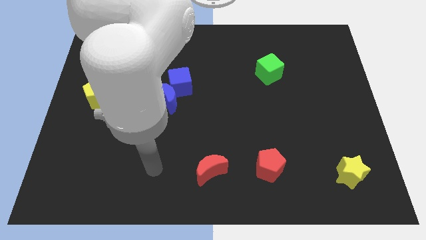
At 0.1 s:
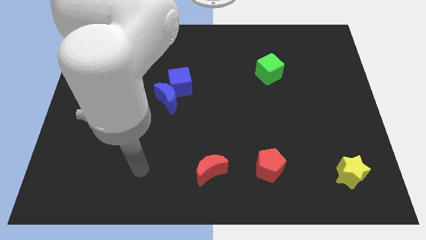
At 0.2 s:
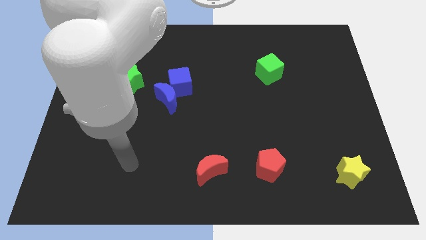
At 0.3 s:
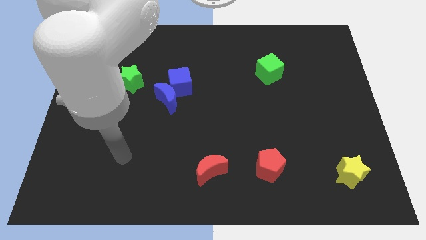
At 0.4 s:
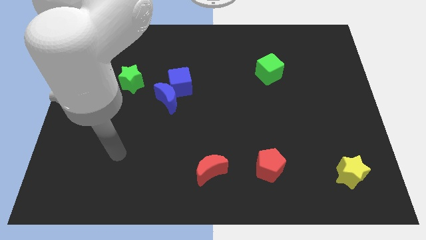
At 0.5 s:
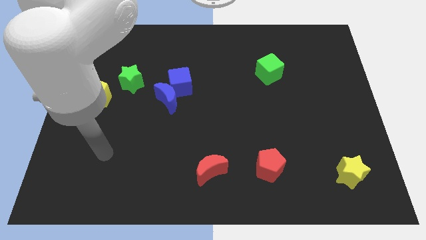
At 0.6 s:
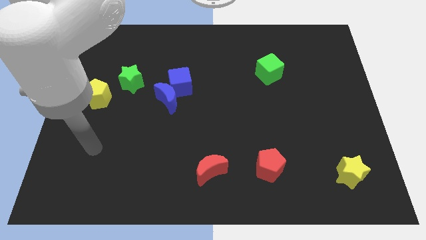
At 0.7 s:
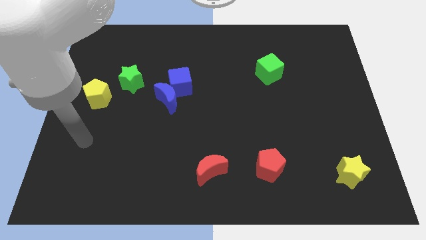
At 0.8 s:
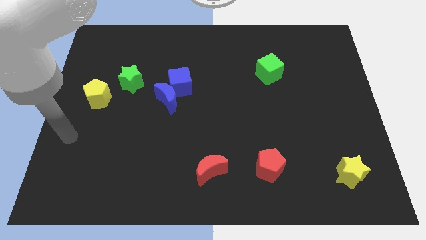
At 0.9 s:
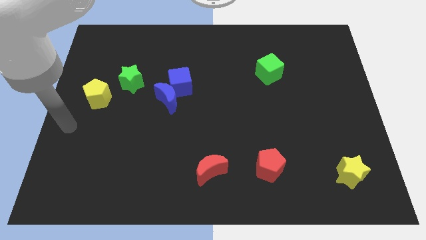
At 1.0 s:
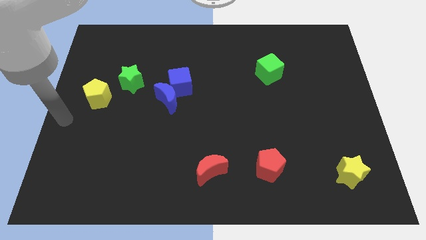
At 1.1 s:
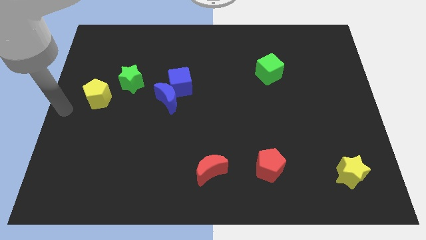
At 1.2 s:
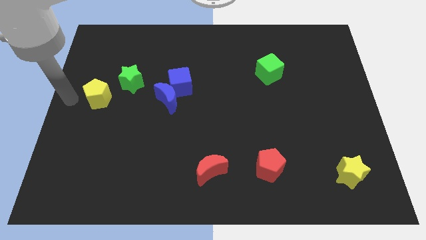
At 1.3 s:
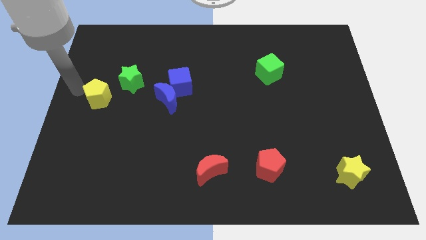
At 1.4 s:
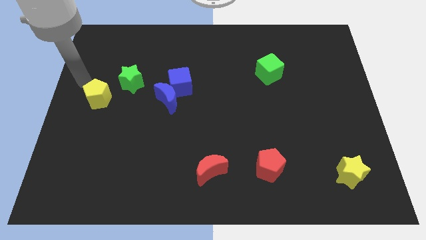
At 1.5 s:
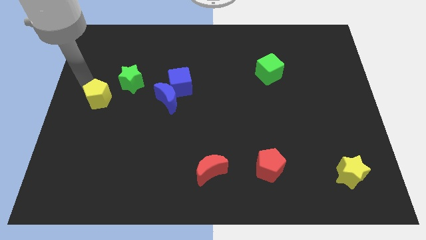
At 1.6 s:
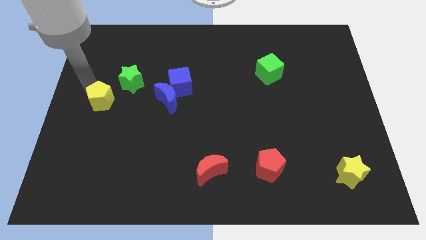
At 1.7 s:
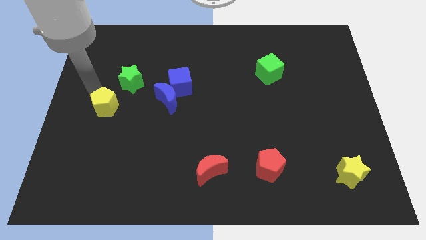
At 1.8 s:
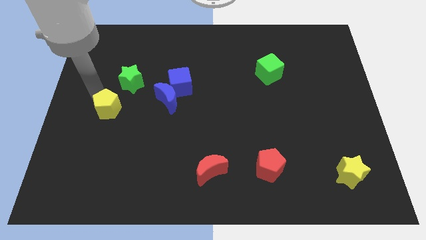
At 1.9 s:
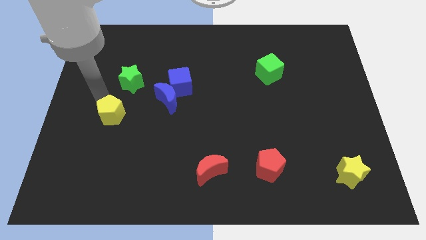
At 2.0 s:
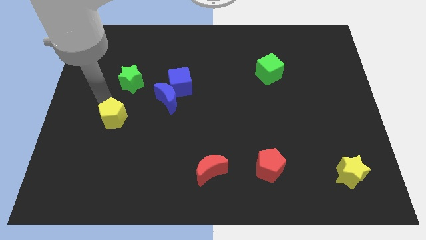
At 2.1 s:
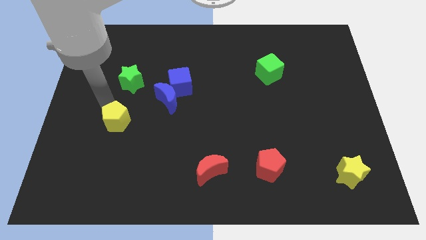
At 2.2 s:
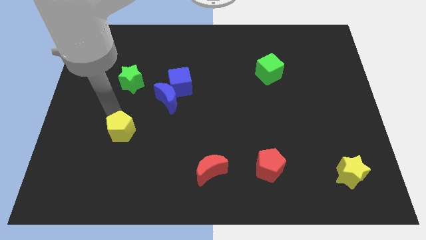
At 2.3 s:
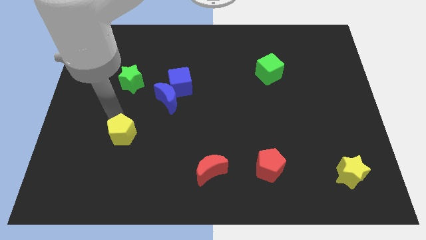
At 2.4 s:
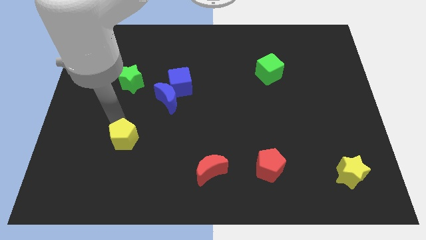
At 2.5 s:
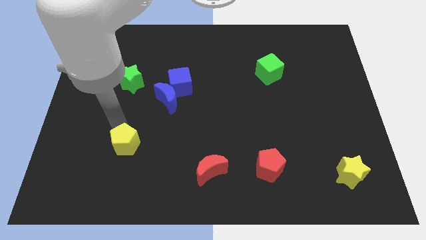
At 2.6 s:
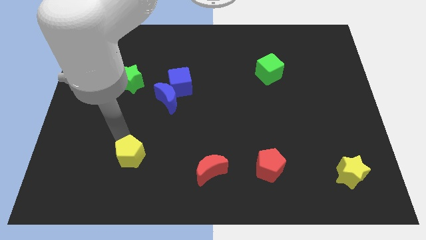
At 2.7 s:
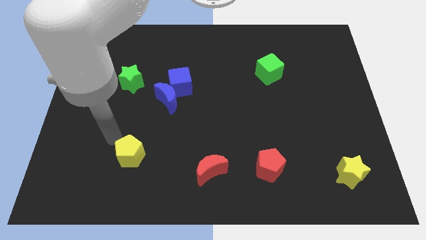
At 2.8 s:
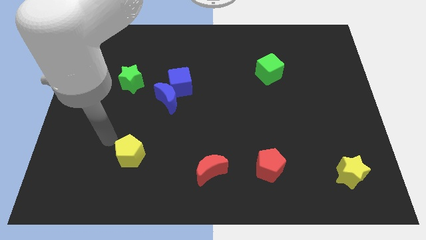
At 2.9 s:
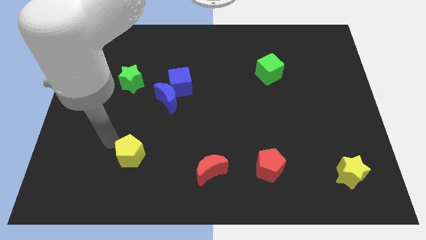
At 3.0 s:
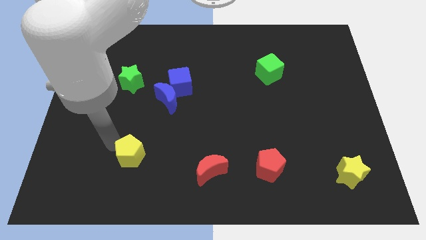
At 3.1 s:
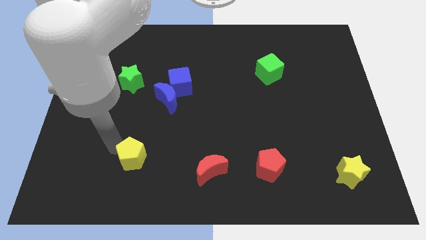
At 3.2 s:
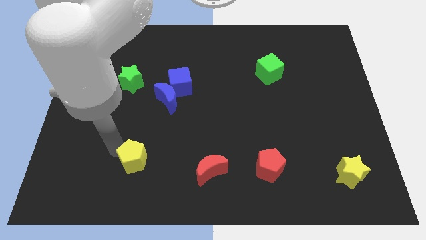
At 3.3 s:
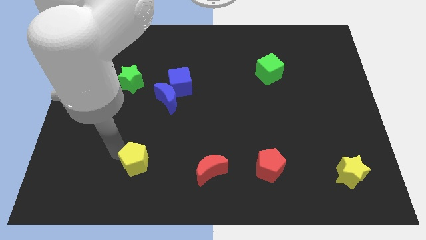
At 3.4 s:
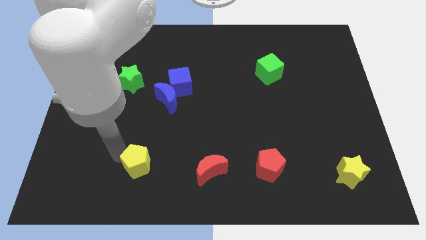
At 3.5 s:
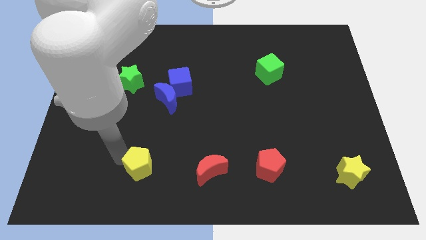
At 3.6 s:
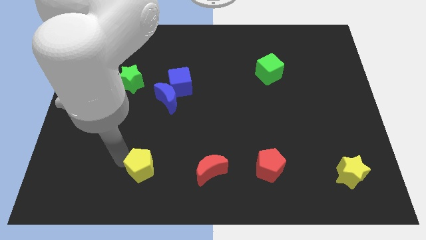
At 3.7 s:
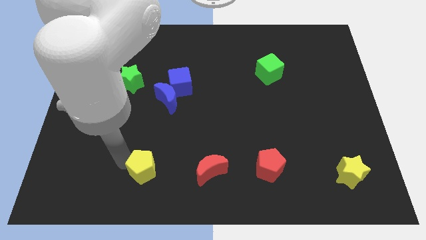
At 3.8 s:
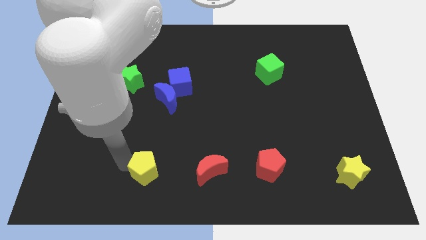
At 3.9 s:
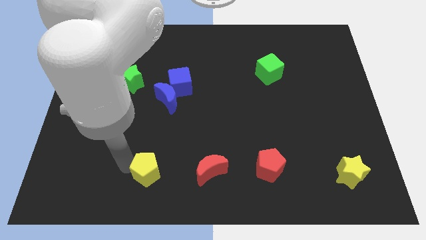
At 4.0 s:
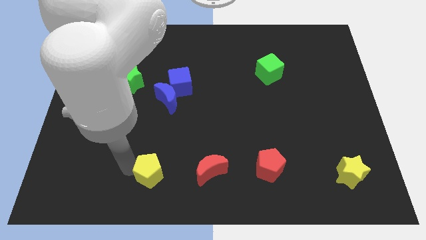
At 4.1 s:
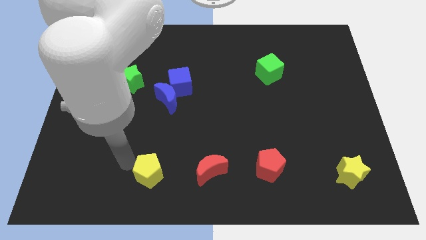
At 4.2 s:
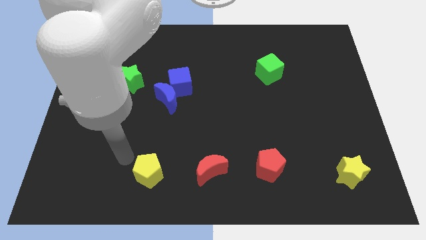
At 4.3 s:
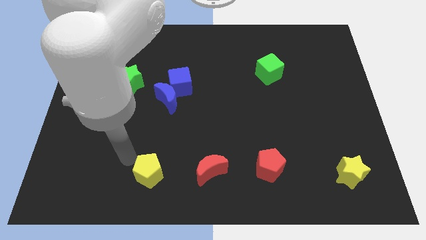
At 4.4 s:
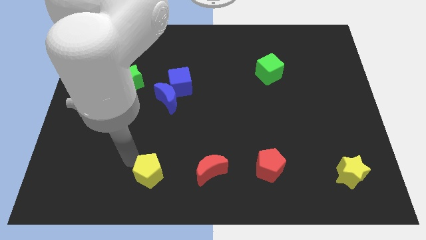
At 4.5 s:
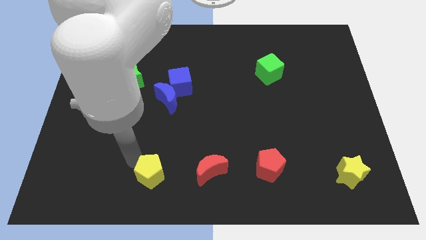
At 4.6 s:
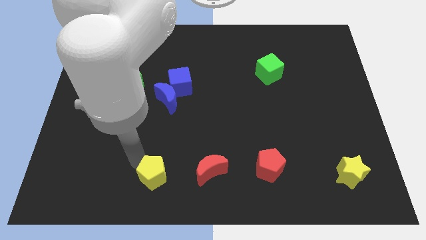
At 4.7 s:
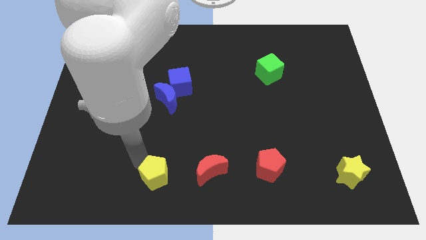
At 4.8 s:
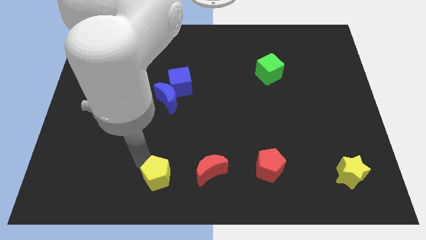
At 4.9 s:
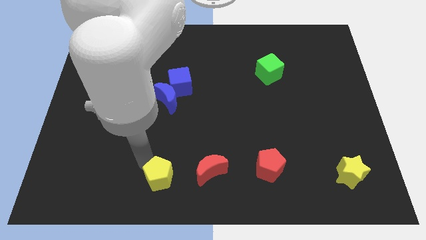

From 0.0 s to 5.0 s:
push the yellow pentagon to the bottom

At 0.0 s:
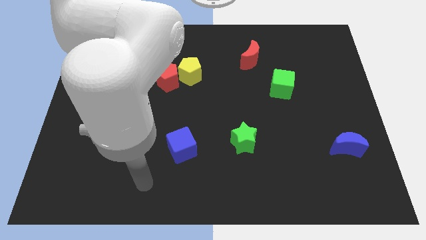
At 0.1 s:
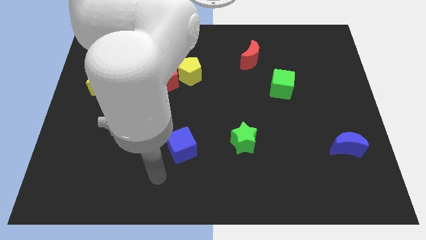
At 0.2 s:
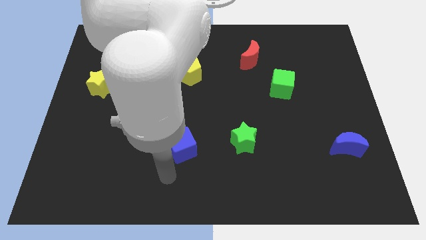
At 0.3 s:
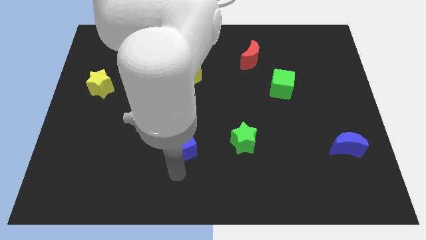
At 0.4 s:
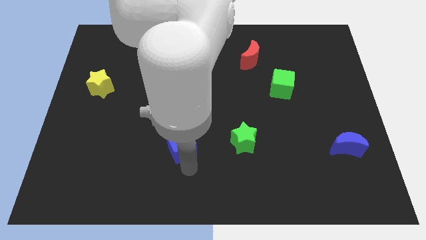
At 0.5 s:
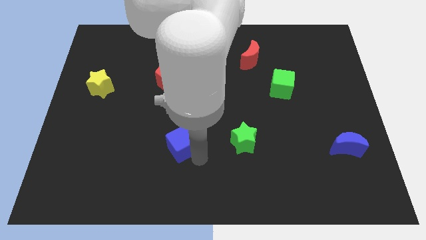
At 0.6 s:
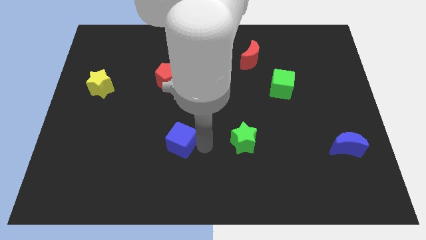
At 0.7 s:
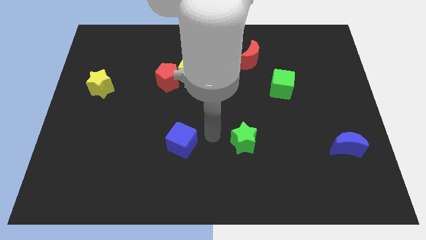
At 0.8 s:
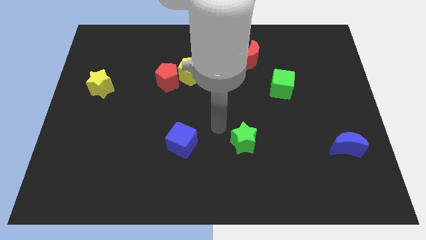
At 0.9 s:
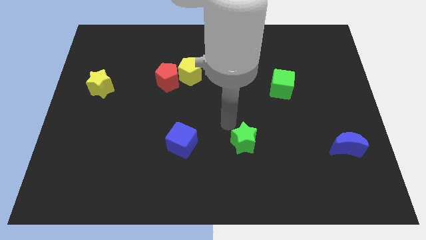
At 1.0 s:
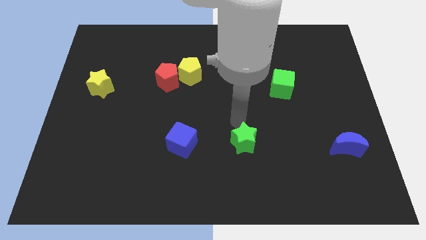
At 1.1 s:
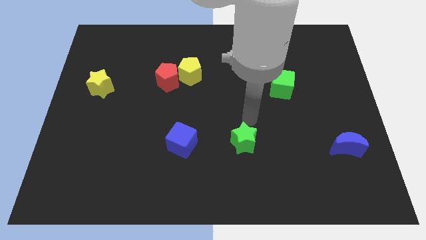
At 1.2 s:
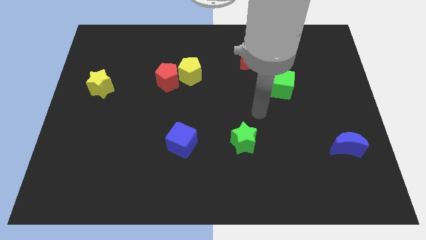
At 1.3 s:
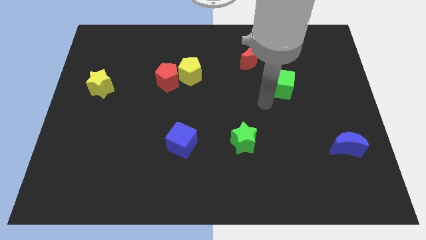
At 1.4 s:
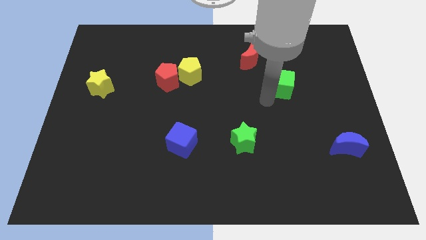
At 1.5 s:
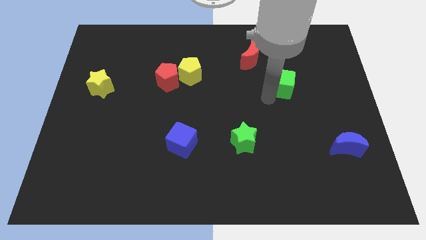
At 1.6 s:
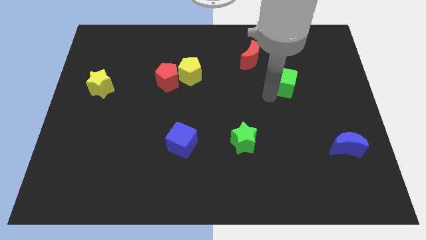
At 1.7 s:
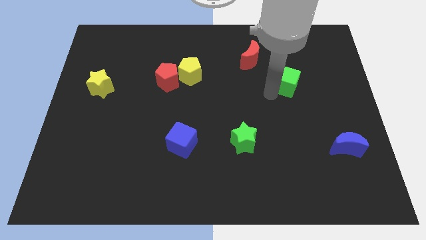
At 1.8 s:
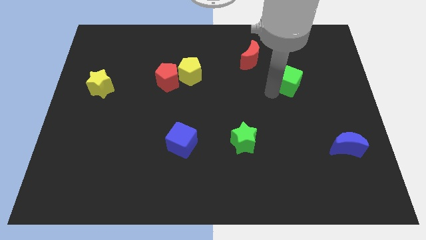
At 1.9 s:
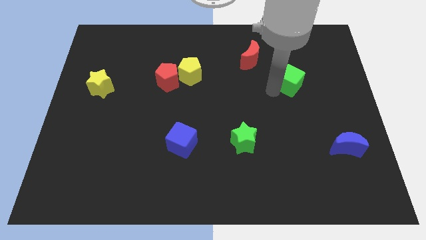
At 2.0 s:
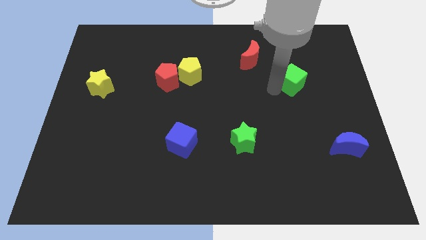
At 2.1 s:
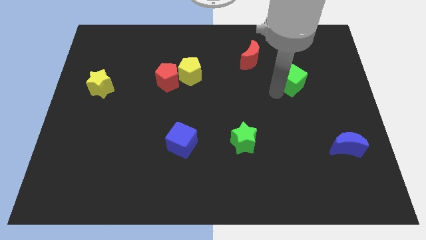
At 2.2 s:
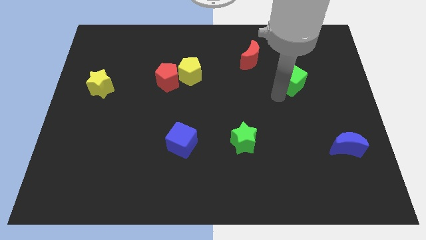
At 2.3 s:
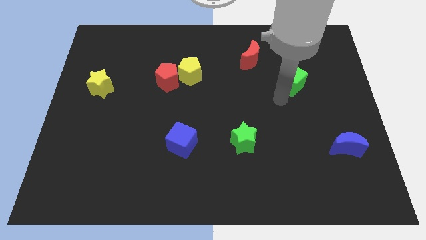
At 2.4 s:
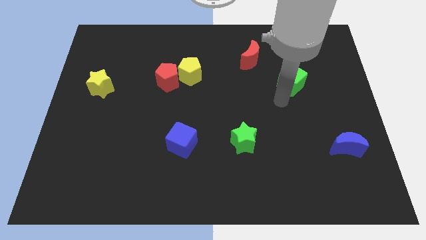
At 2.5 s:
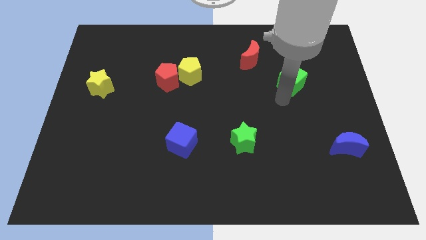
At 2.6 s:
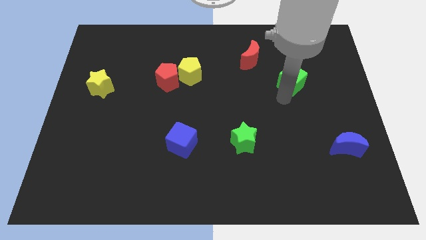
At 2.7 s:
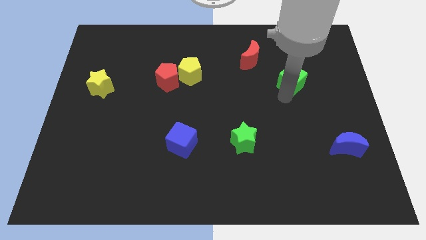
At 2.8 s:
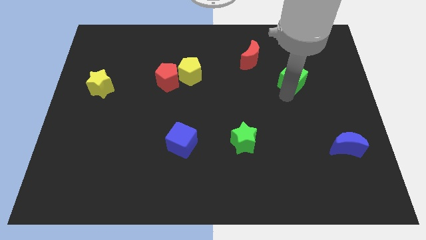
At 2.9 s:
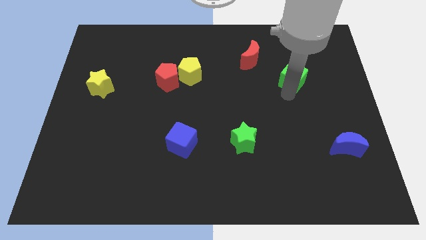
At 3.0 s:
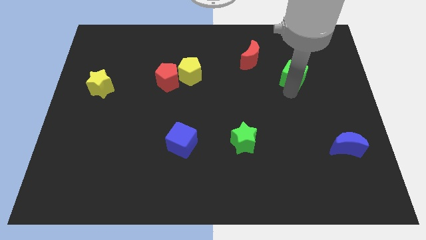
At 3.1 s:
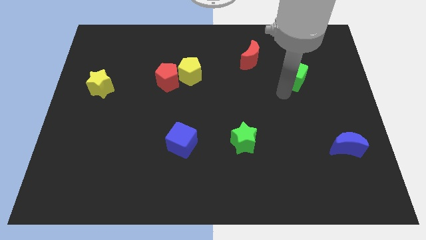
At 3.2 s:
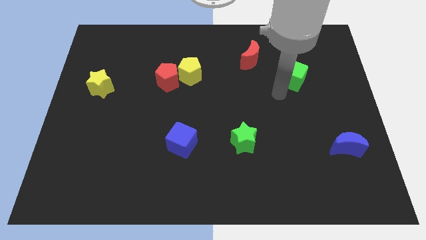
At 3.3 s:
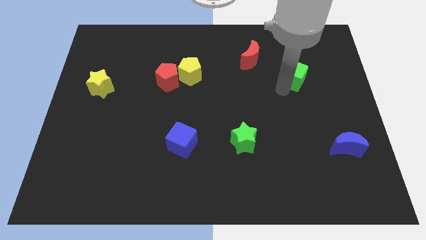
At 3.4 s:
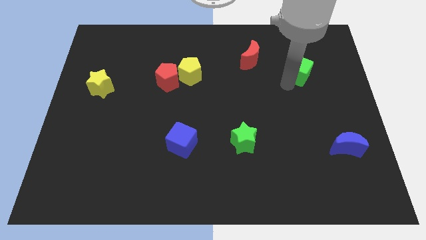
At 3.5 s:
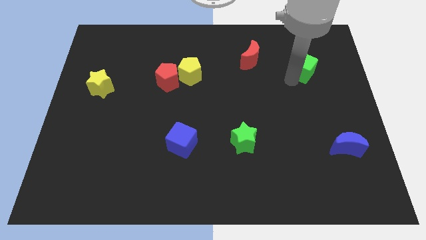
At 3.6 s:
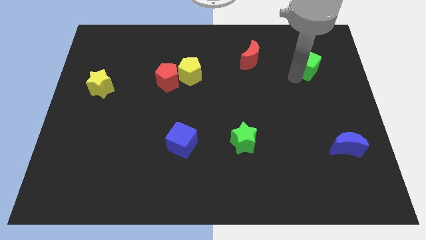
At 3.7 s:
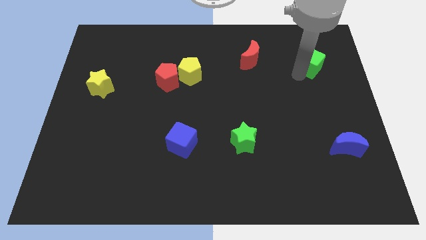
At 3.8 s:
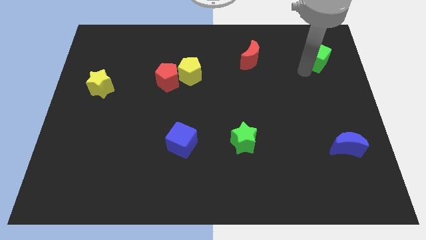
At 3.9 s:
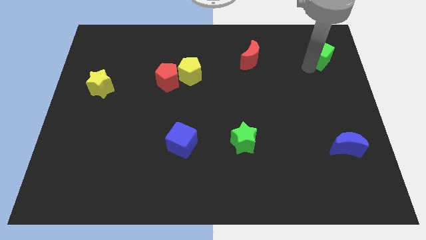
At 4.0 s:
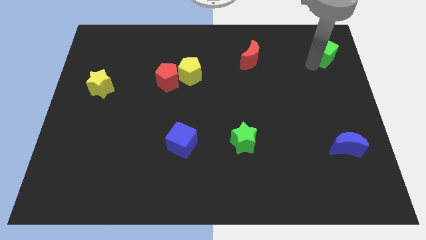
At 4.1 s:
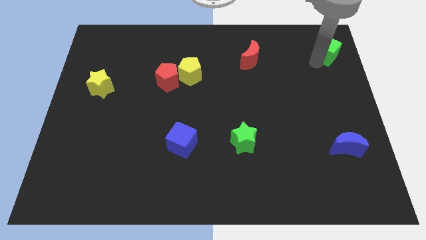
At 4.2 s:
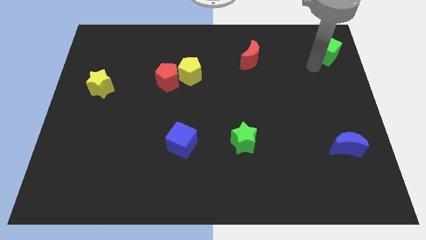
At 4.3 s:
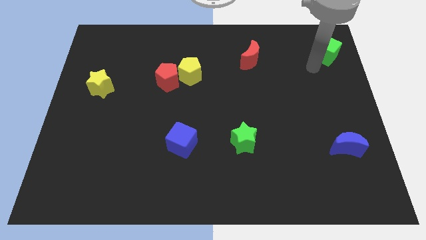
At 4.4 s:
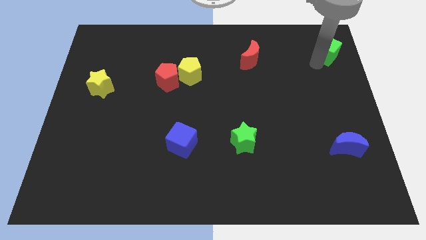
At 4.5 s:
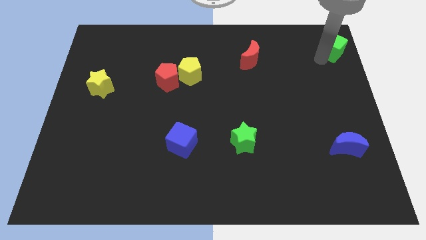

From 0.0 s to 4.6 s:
move the green cube to the top right of the board
